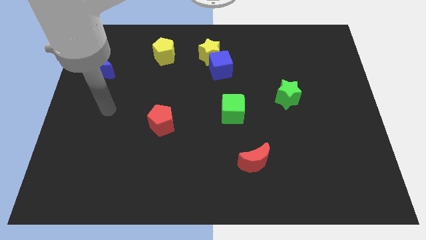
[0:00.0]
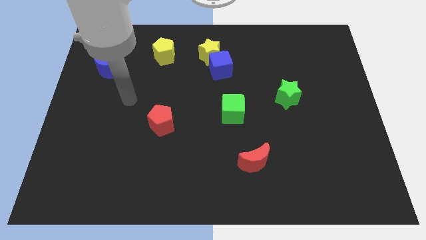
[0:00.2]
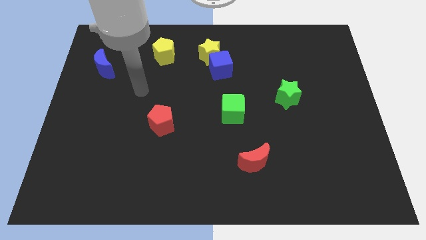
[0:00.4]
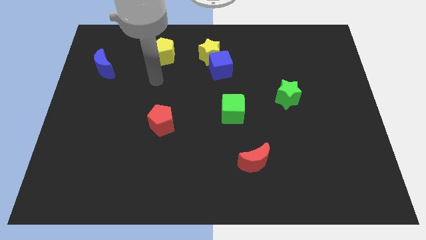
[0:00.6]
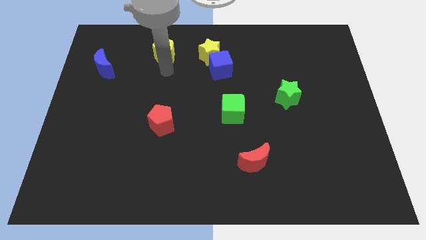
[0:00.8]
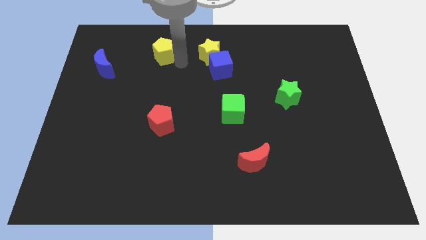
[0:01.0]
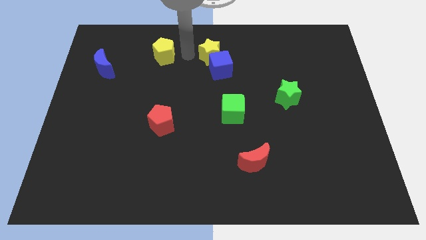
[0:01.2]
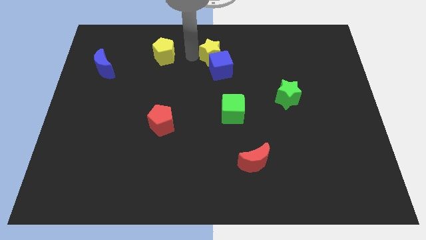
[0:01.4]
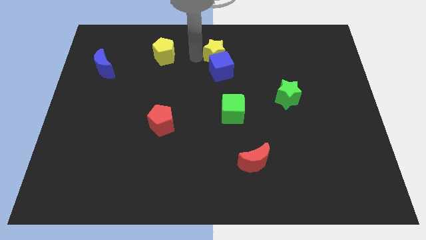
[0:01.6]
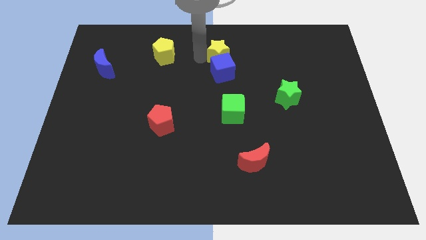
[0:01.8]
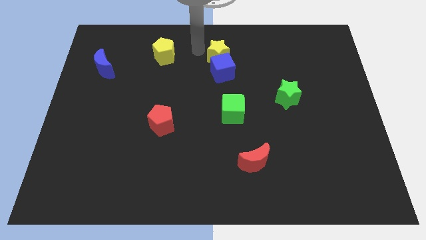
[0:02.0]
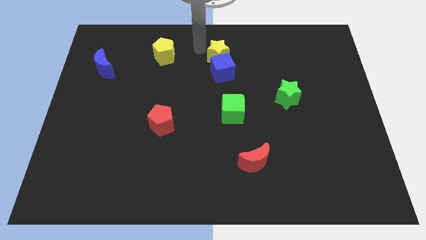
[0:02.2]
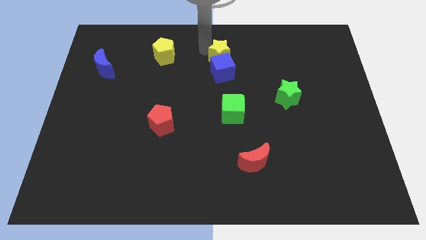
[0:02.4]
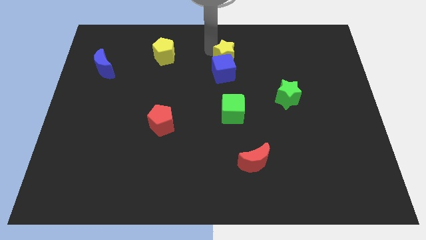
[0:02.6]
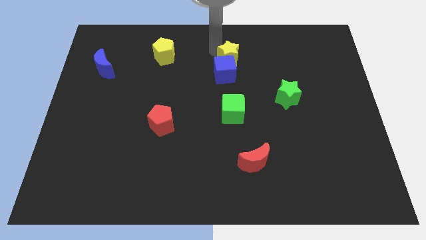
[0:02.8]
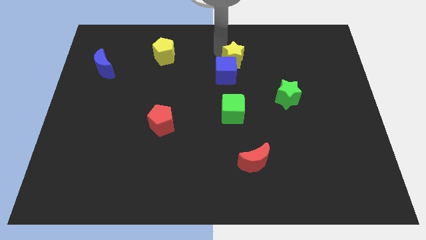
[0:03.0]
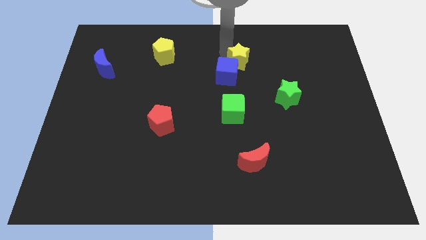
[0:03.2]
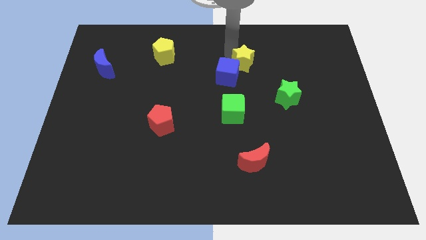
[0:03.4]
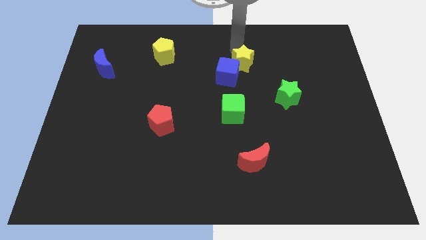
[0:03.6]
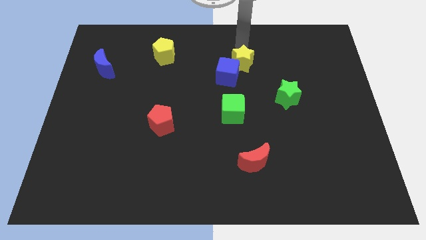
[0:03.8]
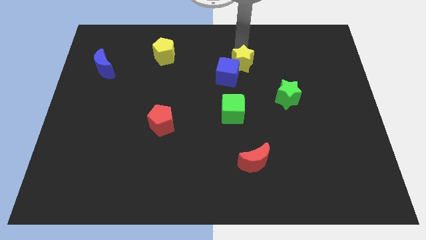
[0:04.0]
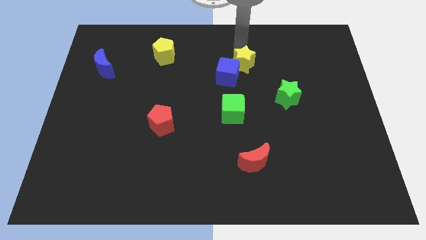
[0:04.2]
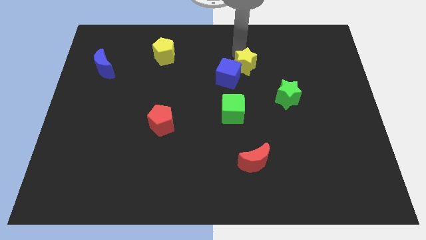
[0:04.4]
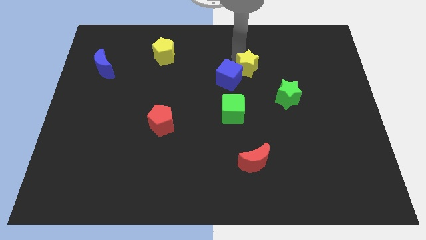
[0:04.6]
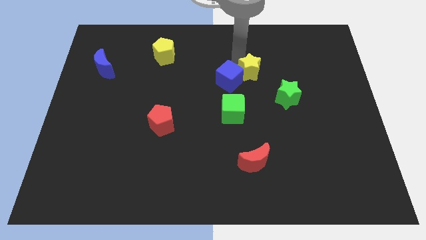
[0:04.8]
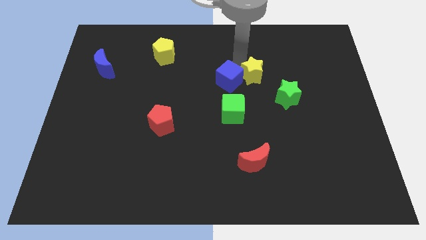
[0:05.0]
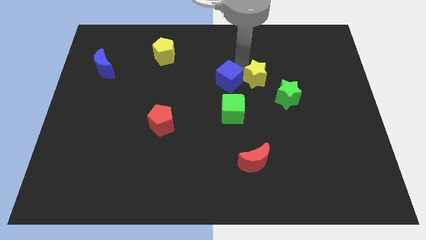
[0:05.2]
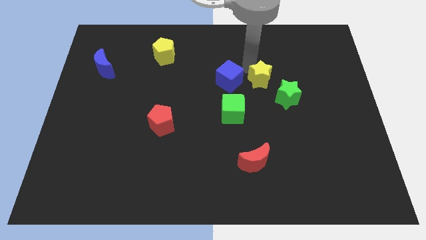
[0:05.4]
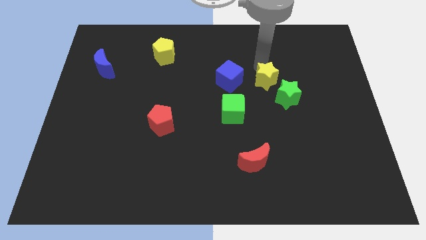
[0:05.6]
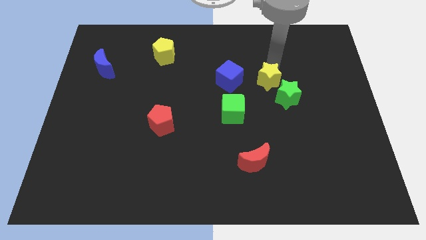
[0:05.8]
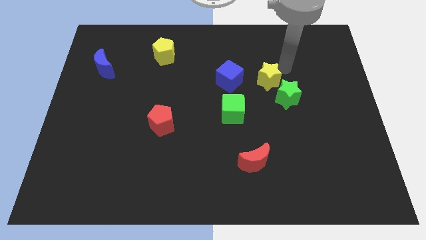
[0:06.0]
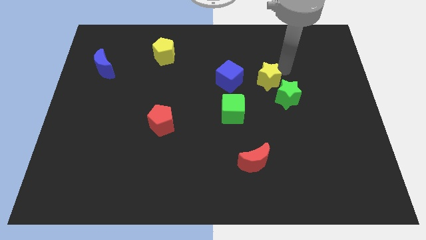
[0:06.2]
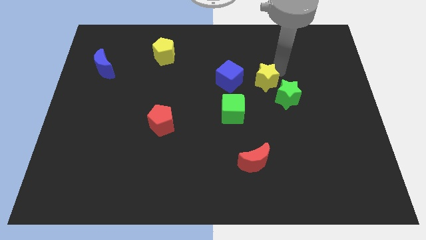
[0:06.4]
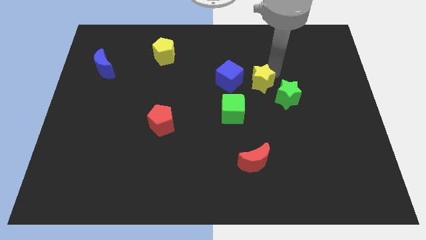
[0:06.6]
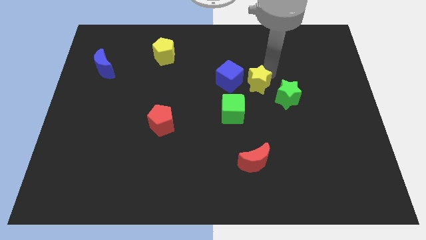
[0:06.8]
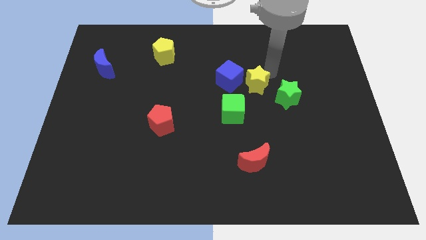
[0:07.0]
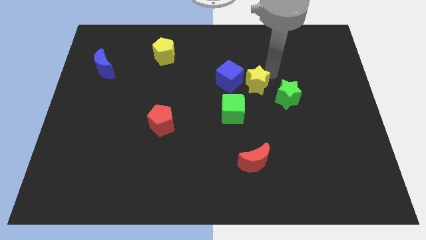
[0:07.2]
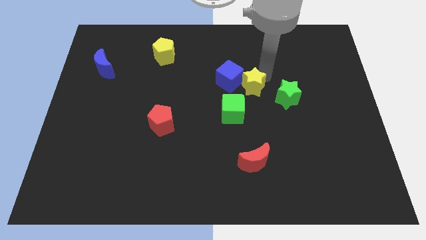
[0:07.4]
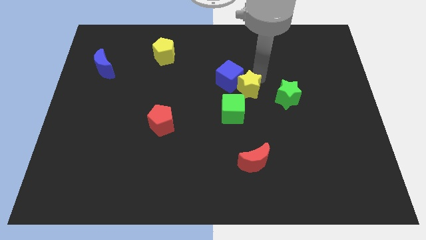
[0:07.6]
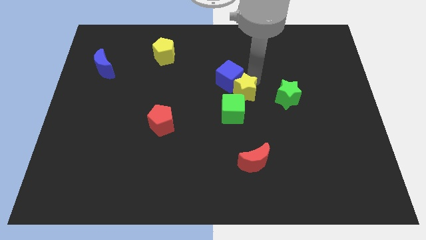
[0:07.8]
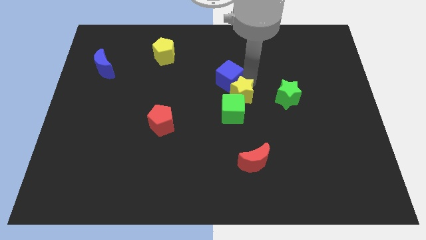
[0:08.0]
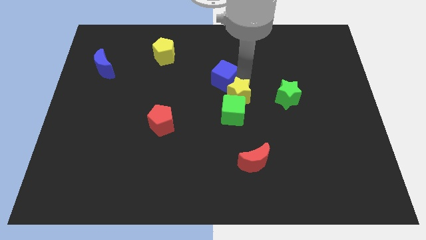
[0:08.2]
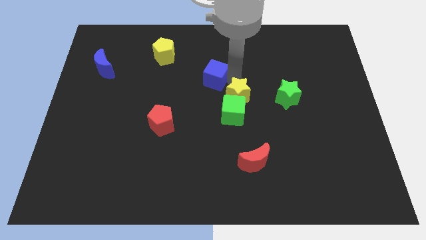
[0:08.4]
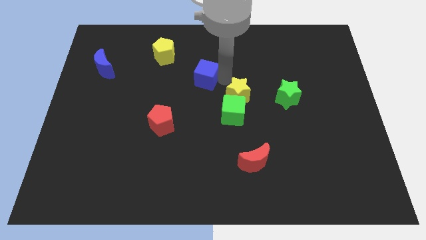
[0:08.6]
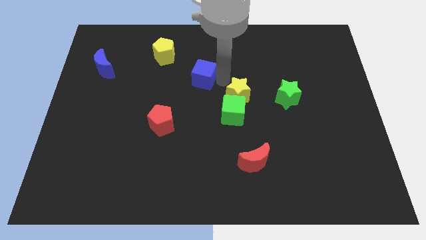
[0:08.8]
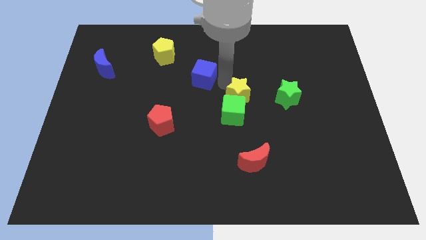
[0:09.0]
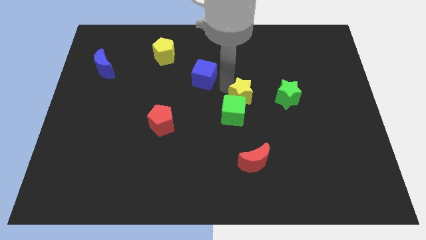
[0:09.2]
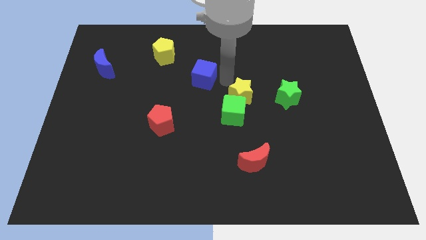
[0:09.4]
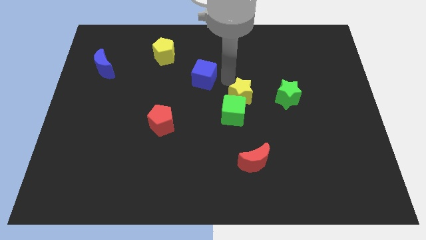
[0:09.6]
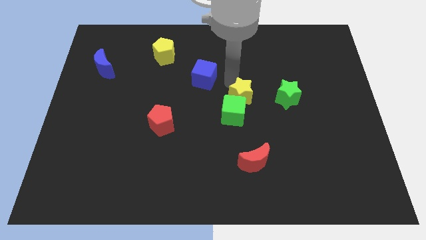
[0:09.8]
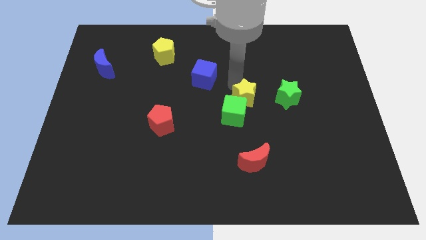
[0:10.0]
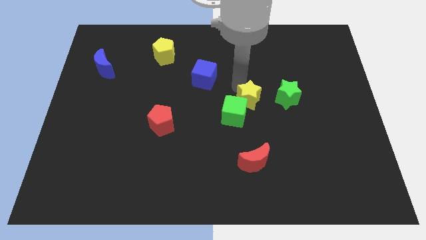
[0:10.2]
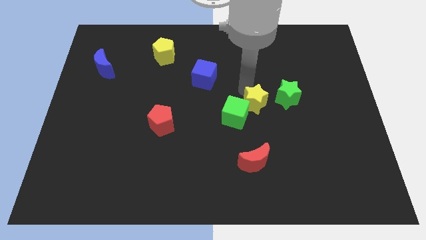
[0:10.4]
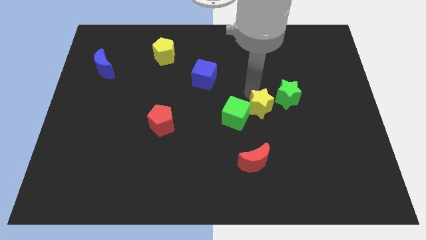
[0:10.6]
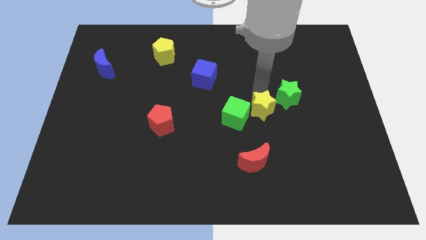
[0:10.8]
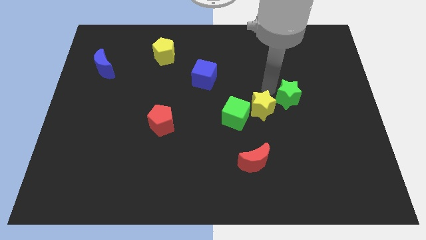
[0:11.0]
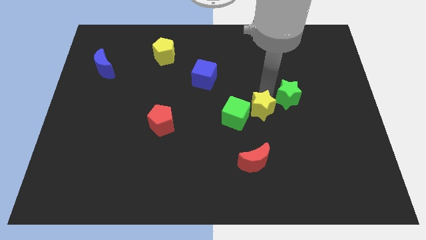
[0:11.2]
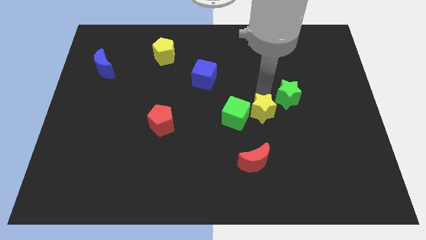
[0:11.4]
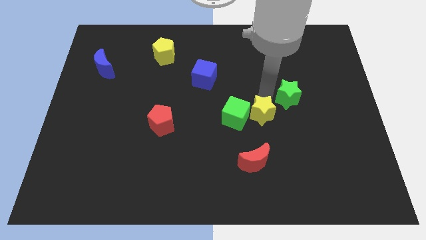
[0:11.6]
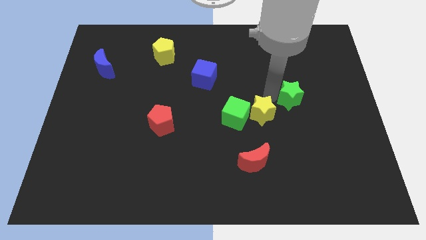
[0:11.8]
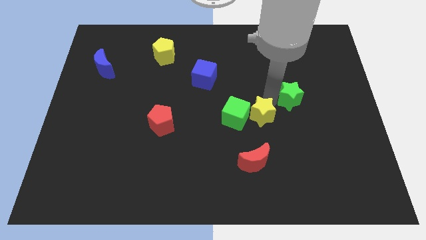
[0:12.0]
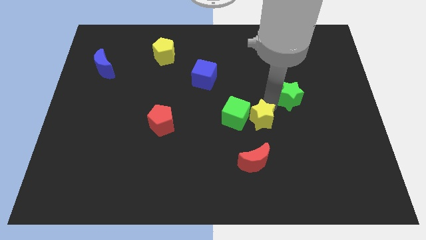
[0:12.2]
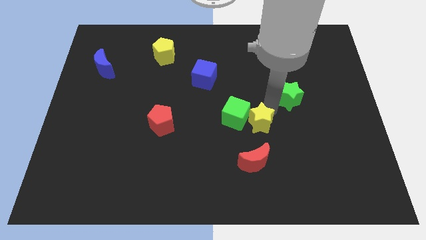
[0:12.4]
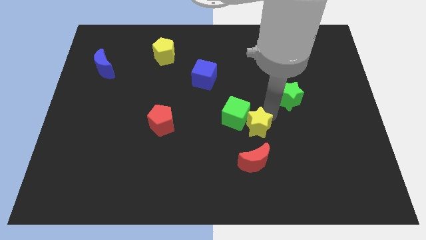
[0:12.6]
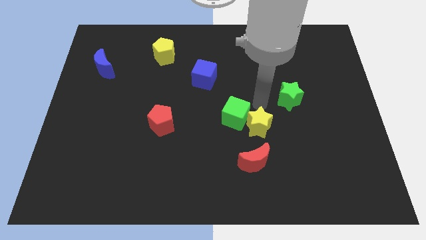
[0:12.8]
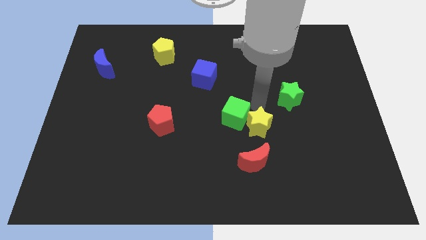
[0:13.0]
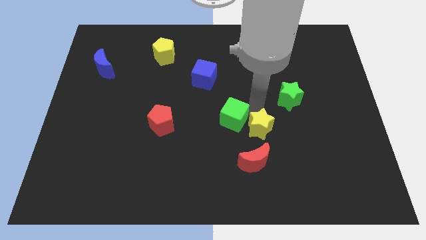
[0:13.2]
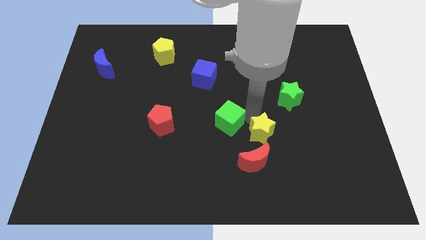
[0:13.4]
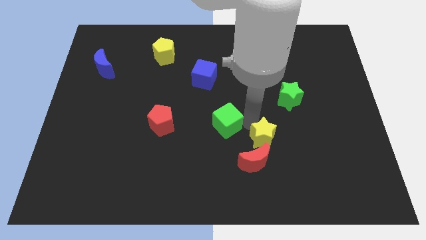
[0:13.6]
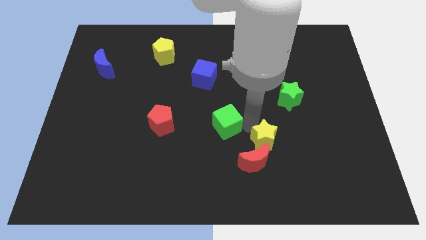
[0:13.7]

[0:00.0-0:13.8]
move the yellow star next to the red moon

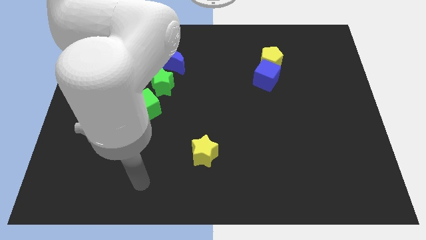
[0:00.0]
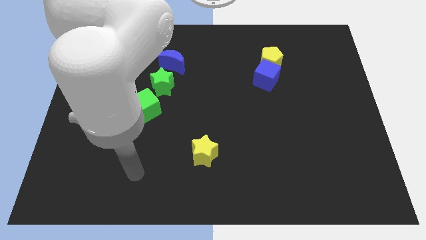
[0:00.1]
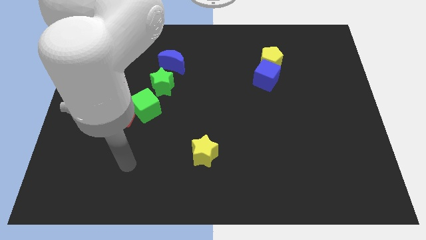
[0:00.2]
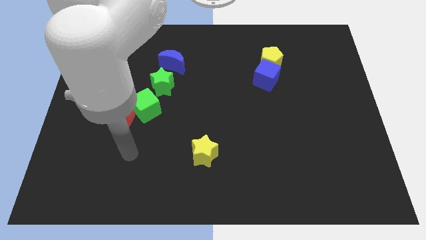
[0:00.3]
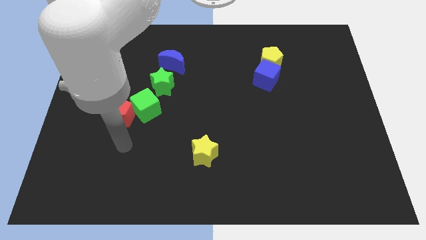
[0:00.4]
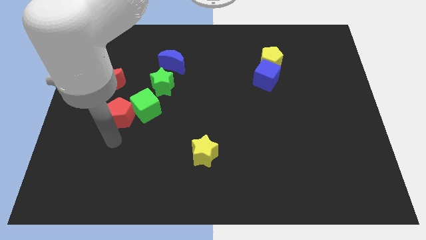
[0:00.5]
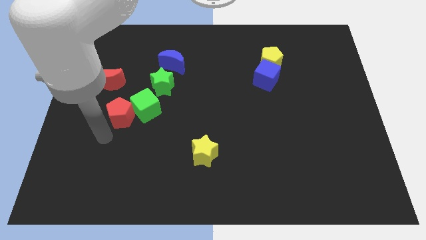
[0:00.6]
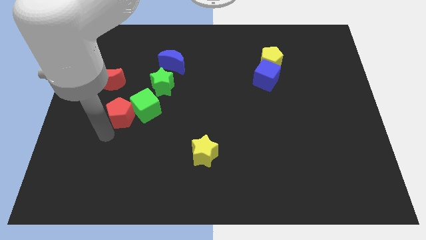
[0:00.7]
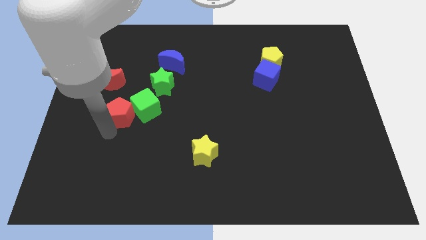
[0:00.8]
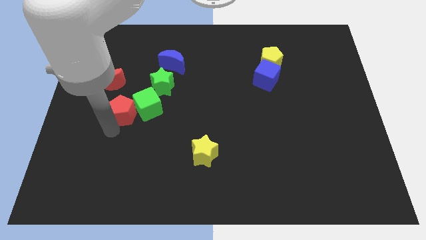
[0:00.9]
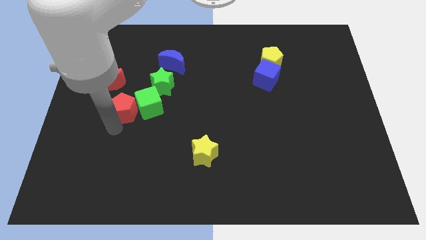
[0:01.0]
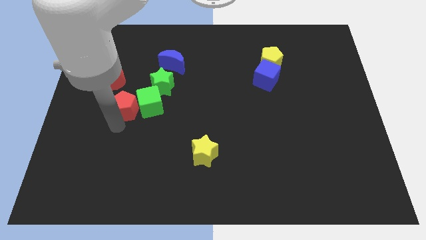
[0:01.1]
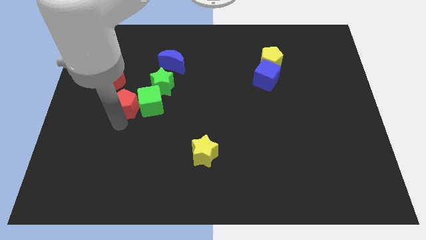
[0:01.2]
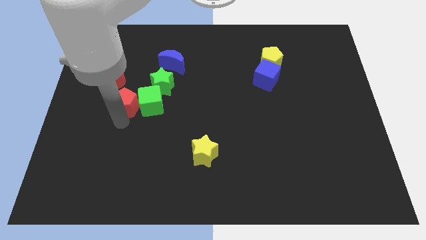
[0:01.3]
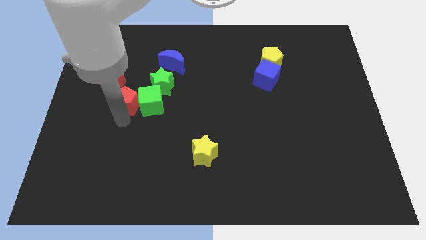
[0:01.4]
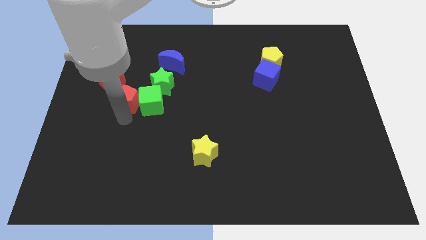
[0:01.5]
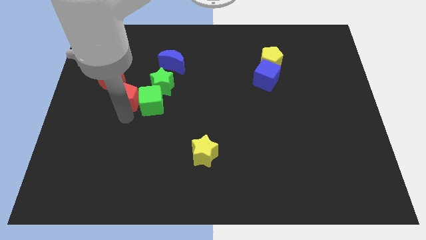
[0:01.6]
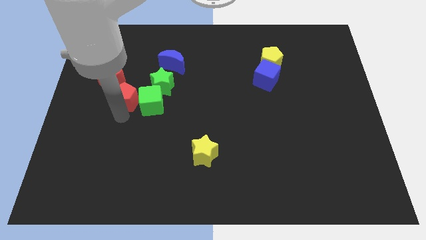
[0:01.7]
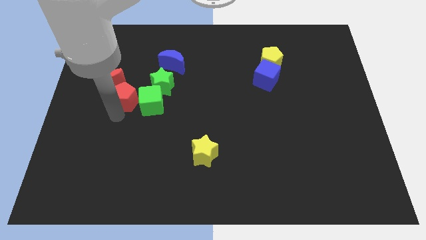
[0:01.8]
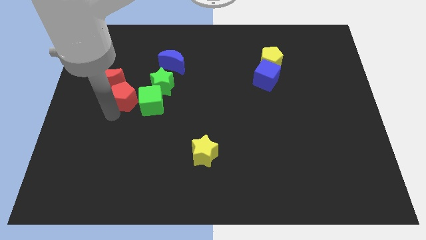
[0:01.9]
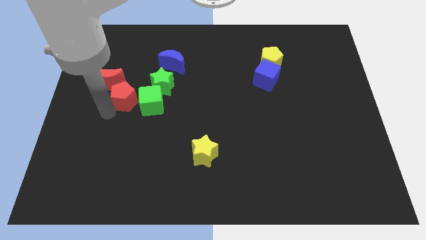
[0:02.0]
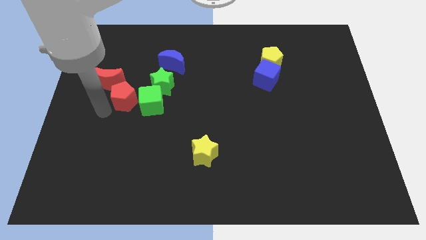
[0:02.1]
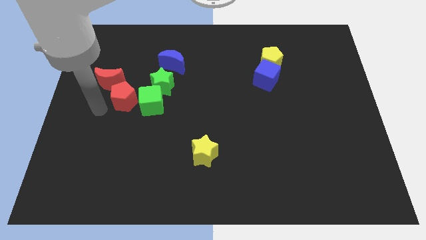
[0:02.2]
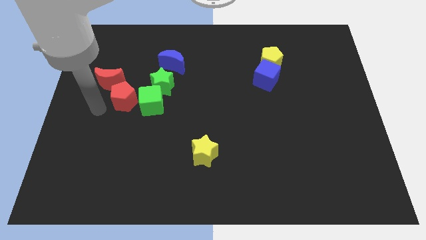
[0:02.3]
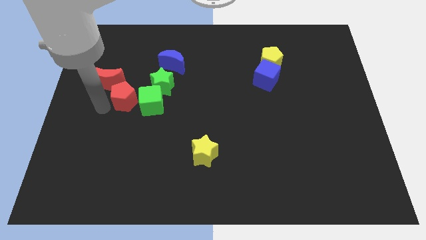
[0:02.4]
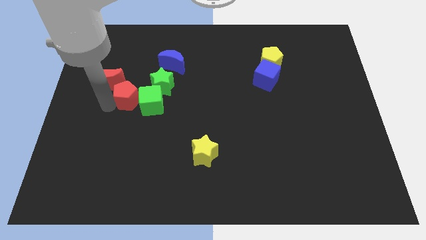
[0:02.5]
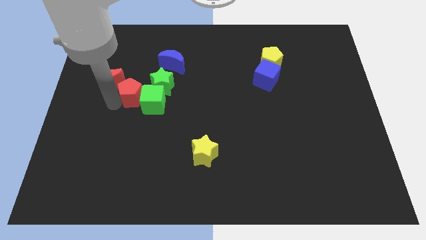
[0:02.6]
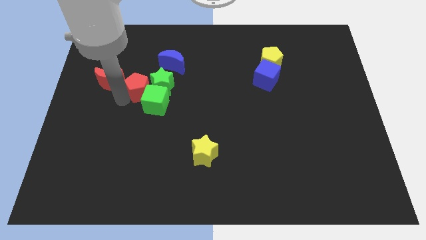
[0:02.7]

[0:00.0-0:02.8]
move the red pentagon towards the green star
